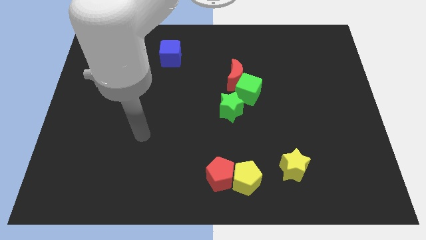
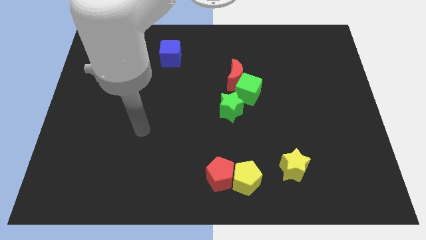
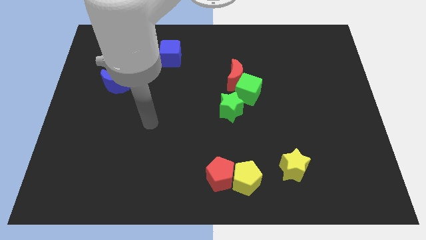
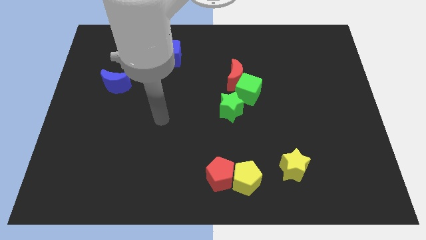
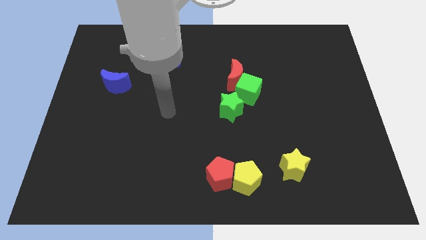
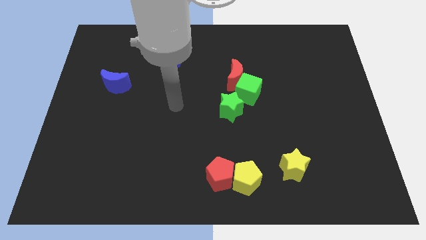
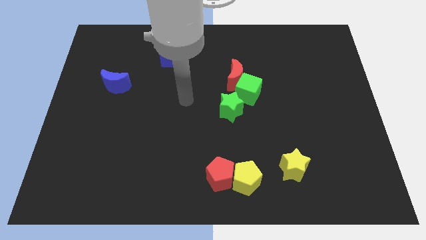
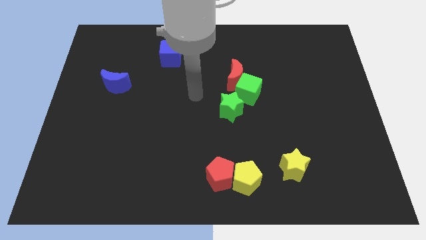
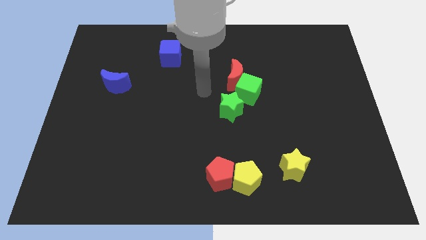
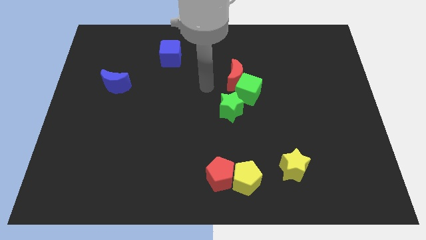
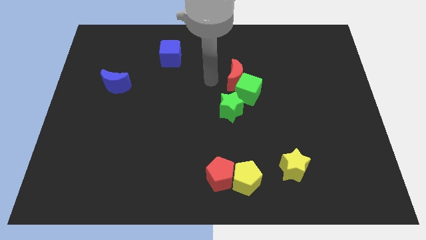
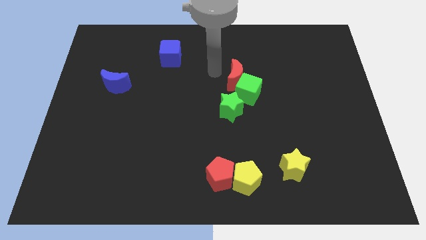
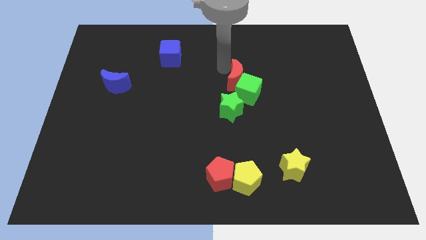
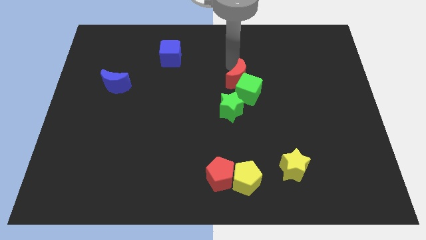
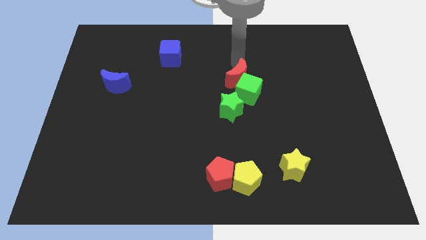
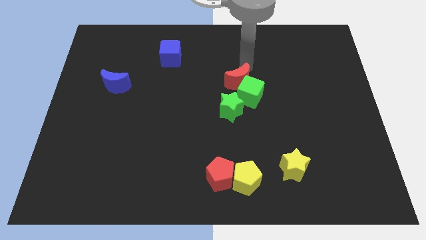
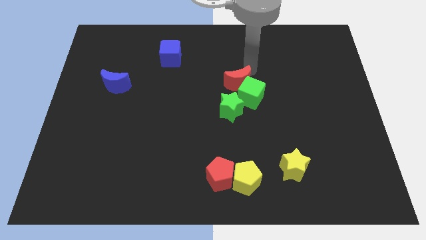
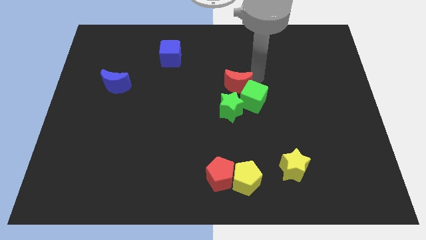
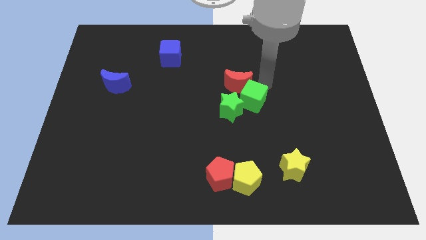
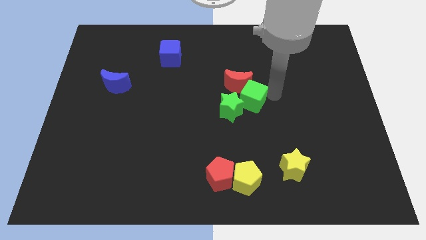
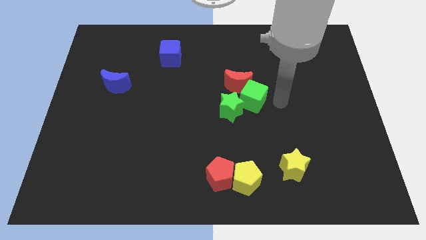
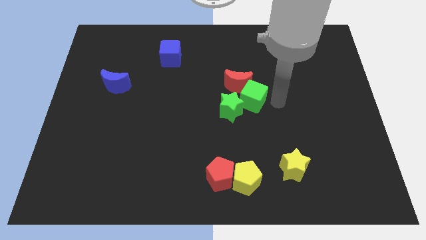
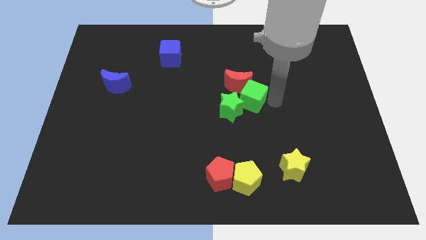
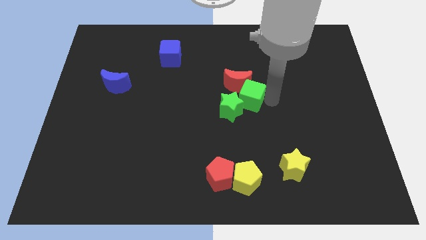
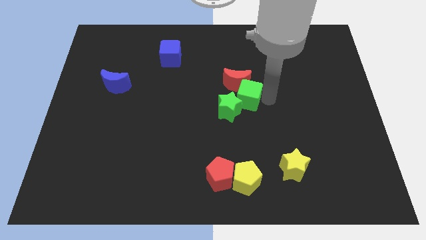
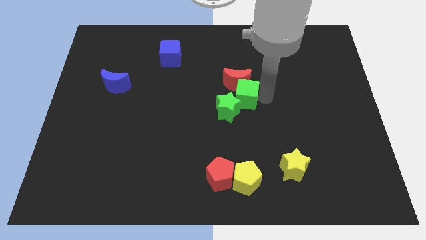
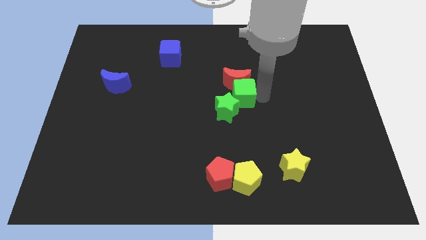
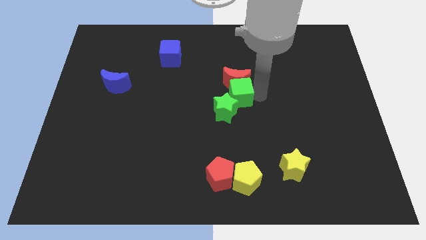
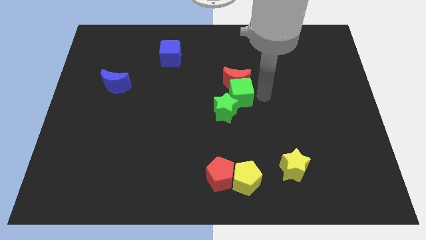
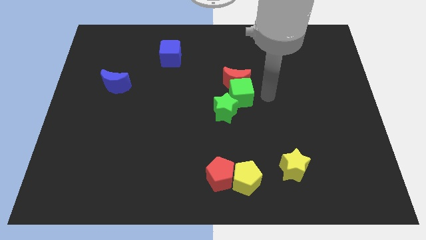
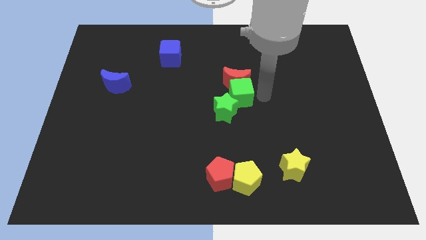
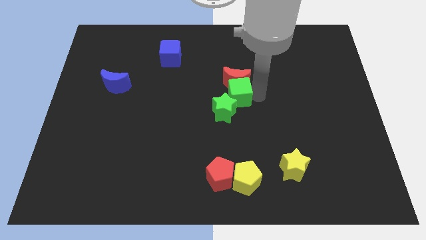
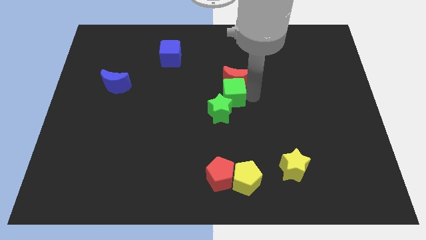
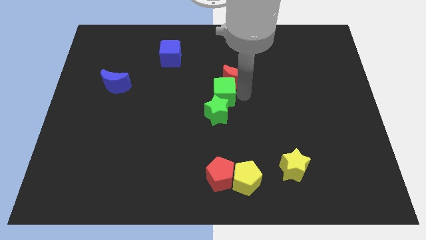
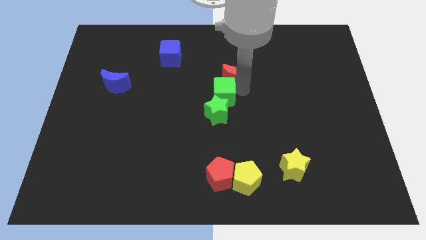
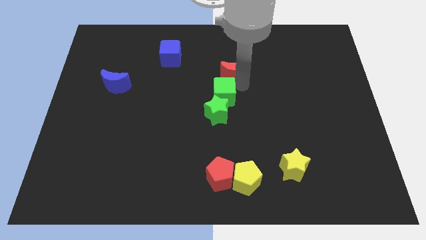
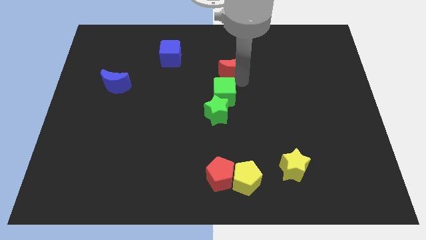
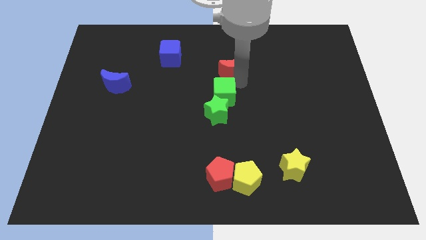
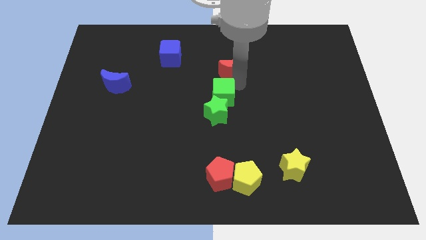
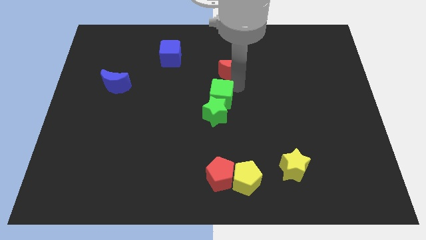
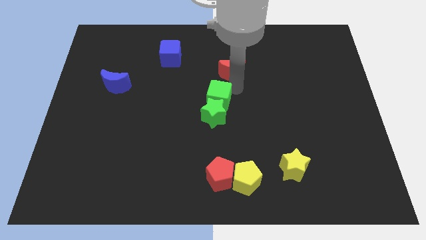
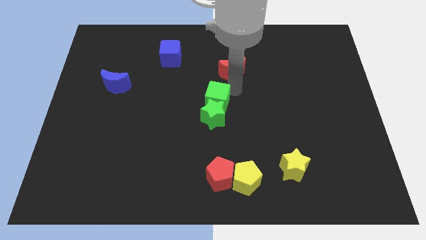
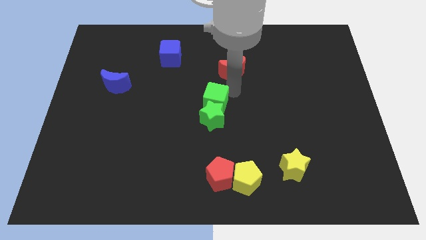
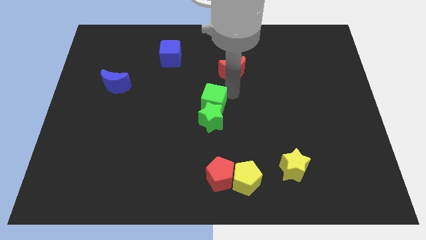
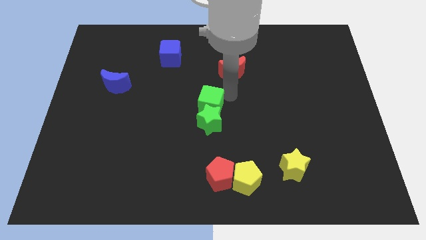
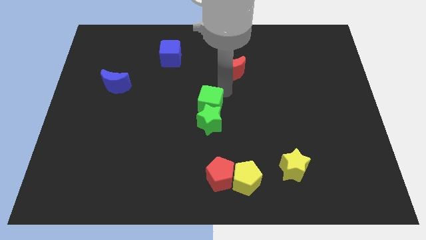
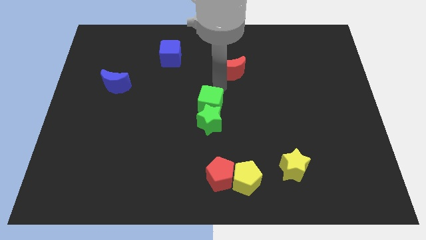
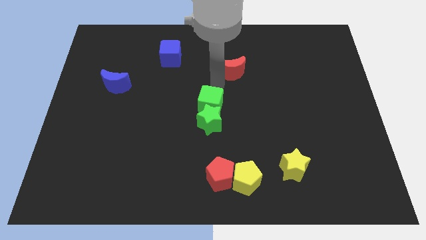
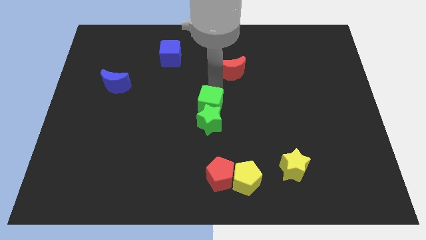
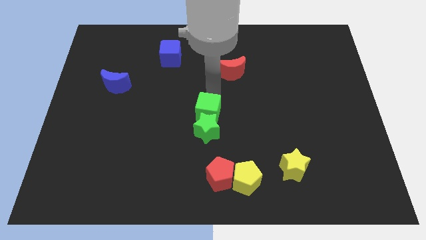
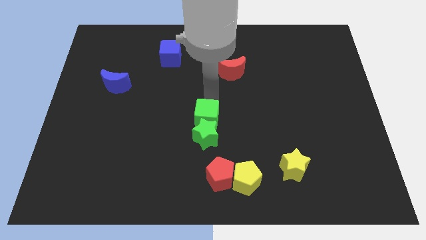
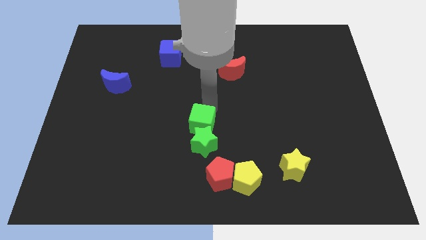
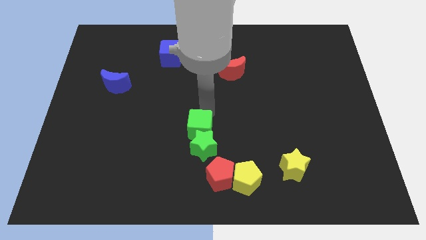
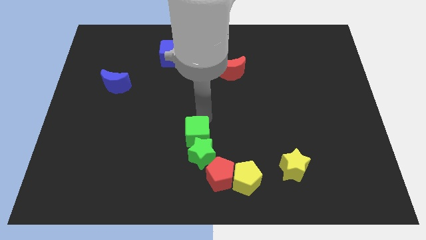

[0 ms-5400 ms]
slide the green cube to the top left of the red pentagon

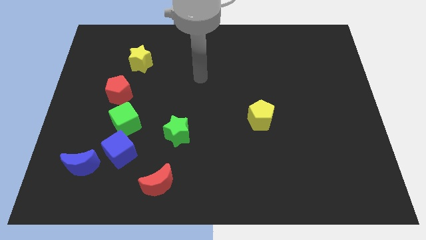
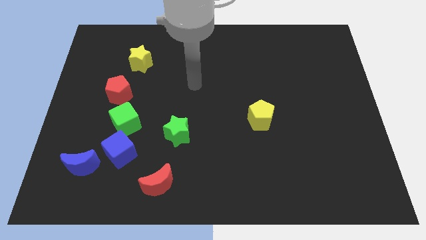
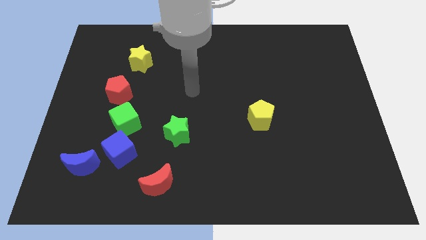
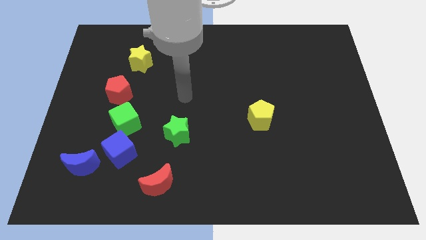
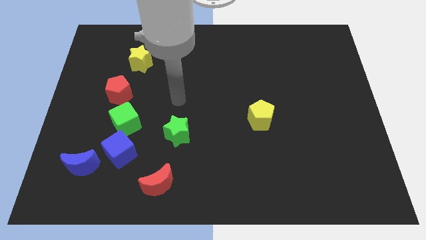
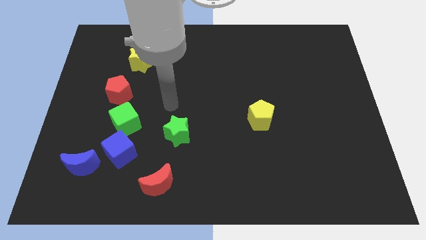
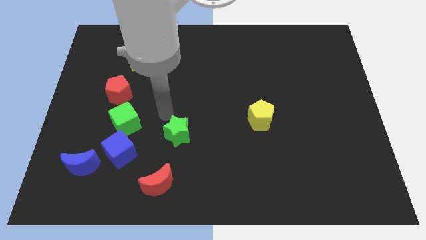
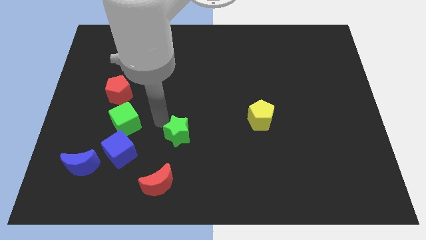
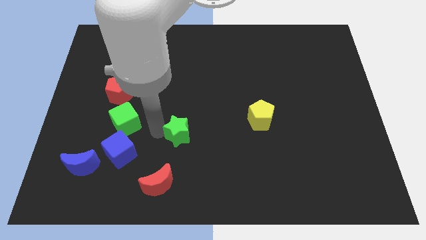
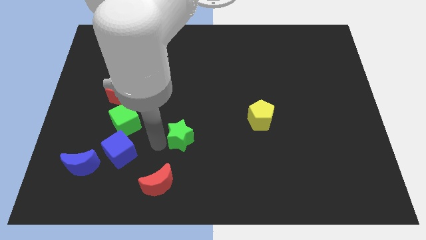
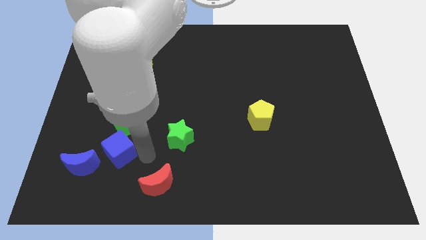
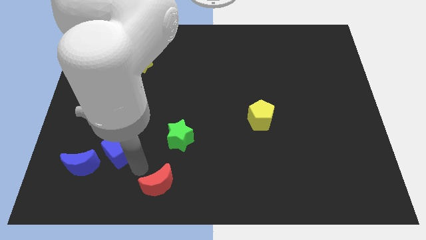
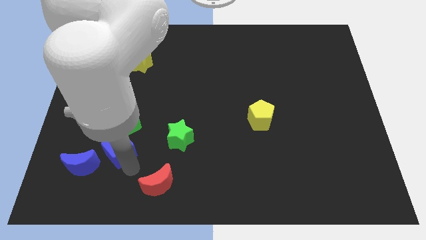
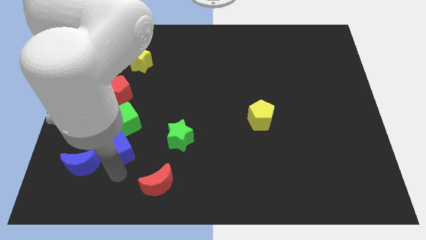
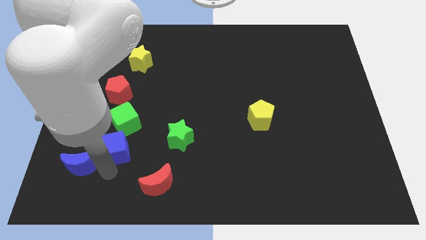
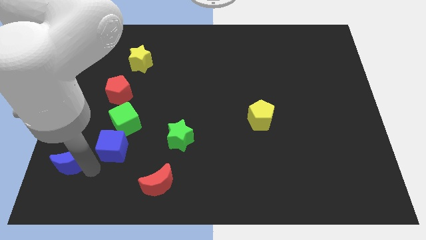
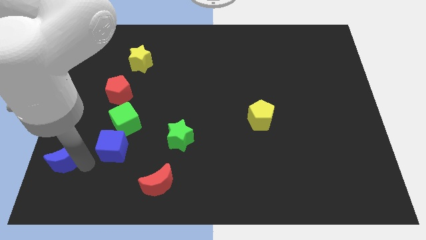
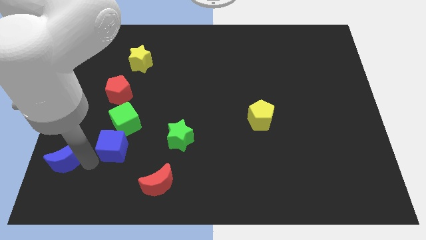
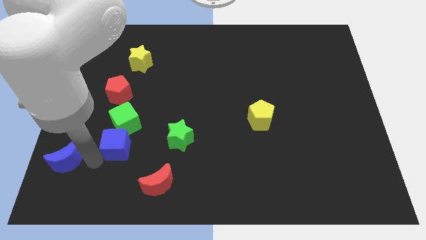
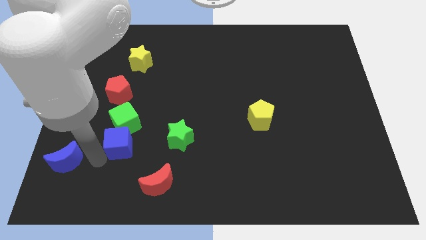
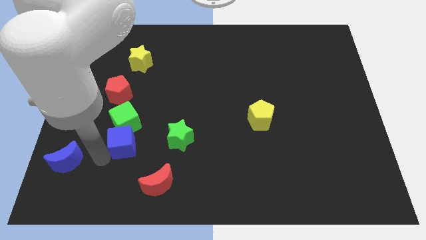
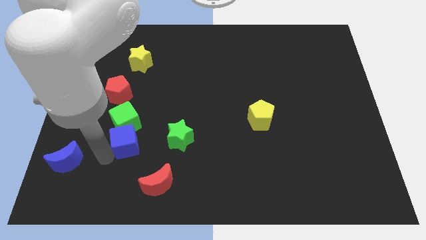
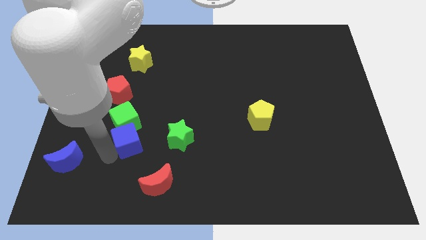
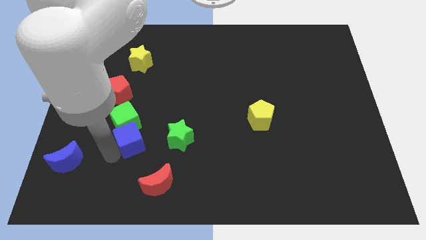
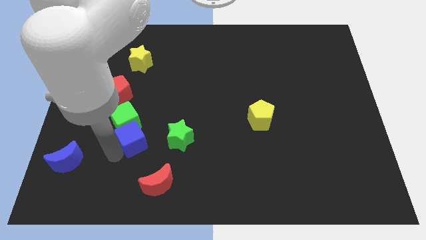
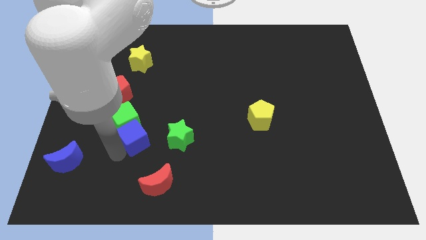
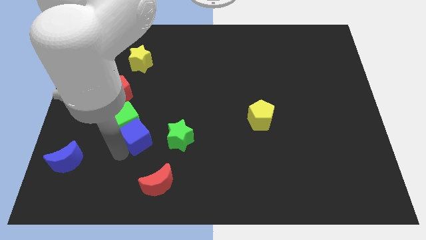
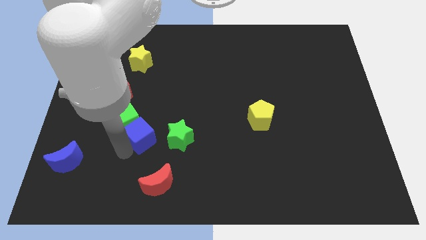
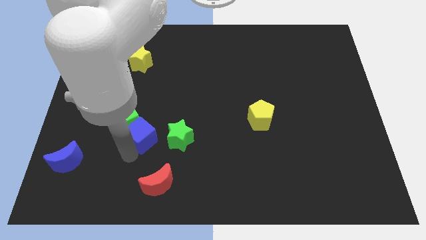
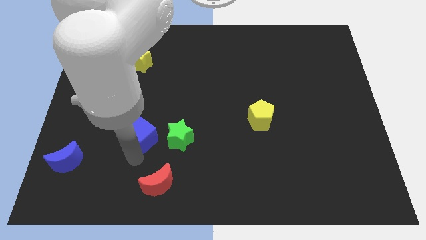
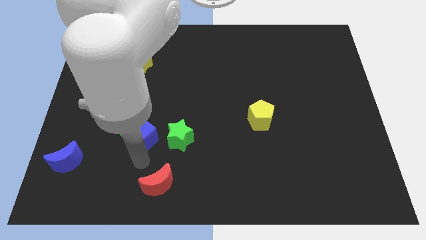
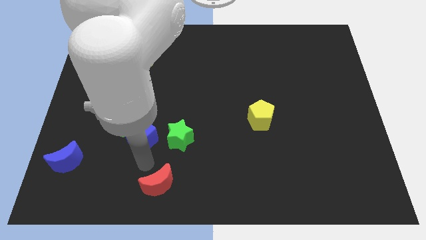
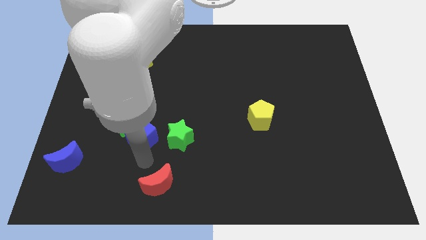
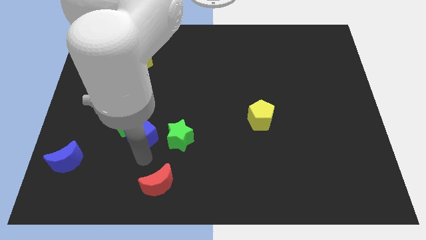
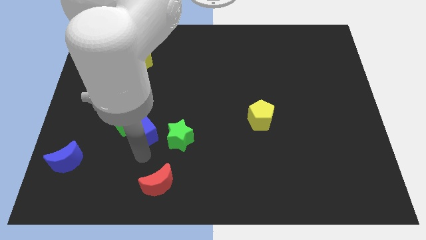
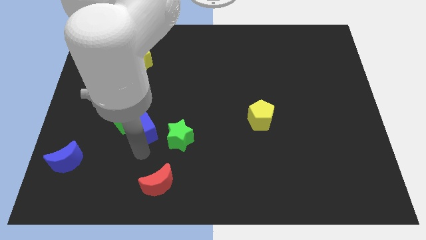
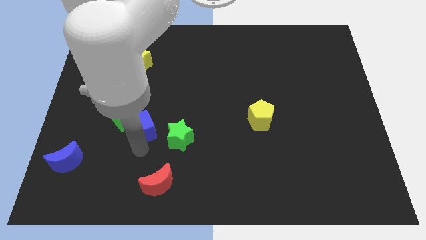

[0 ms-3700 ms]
slide the blue cube to the bottom right side of the red pentagon
